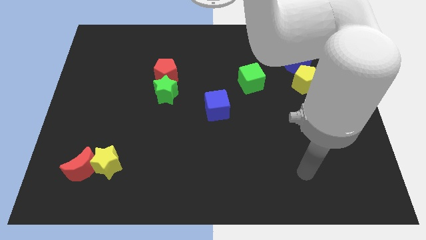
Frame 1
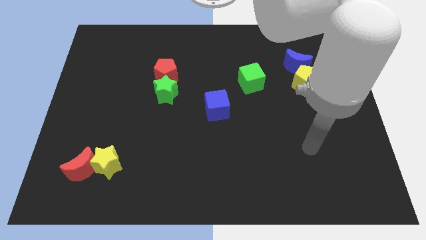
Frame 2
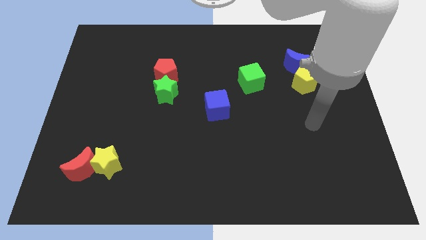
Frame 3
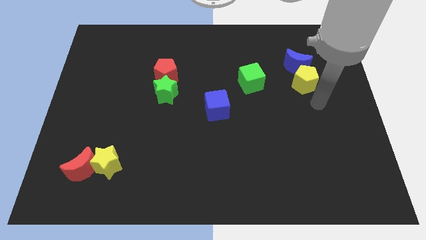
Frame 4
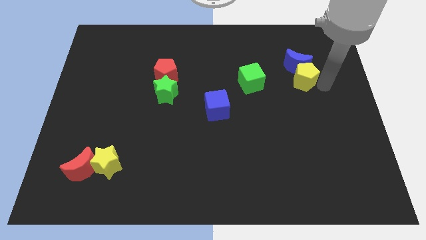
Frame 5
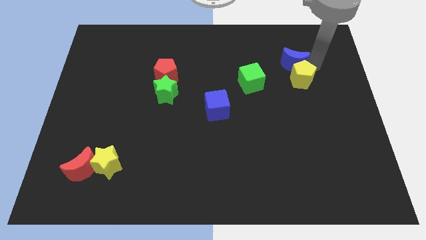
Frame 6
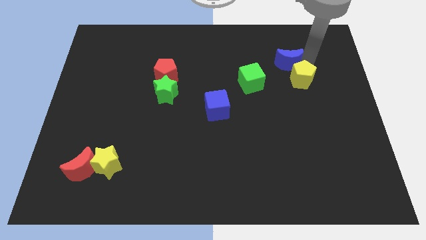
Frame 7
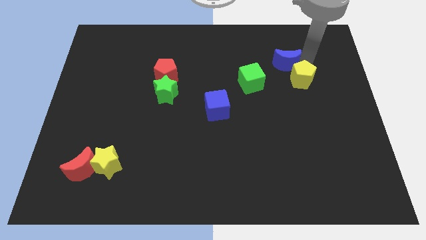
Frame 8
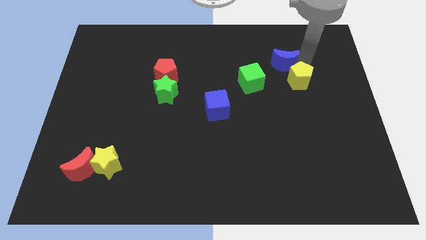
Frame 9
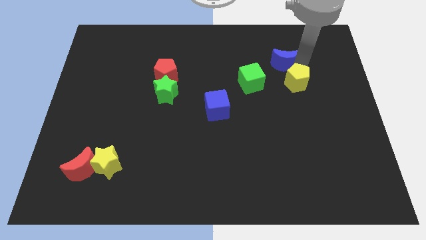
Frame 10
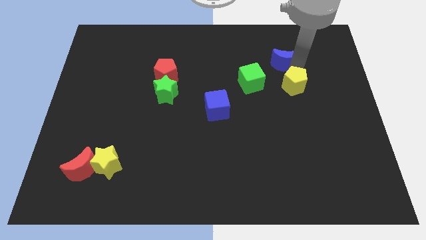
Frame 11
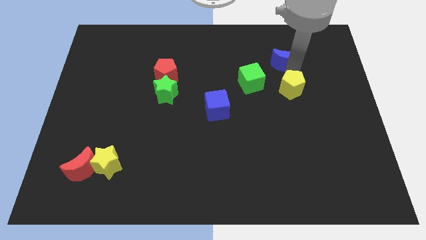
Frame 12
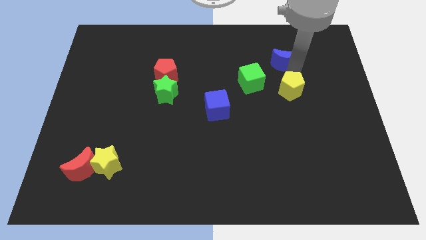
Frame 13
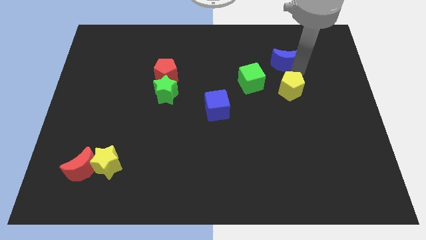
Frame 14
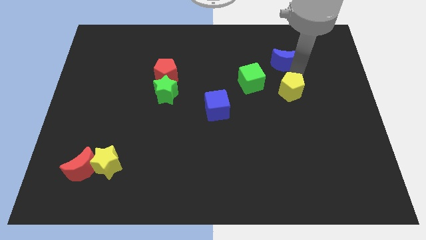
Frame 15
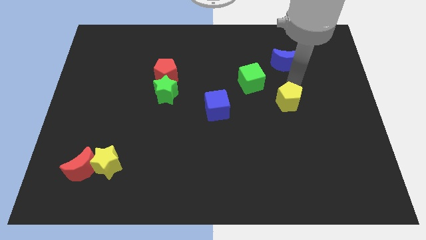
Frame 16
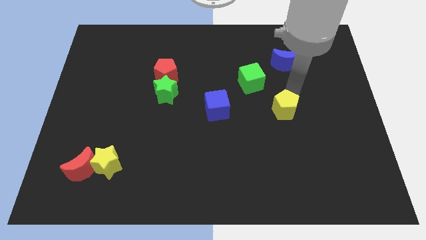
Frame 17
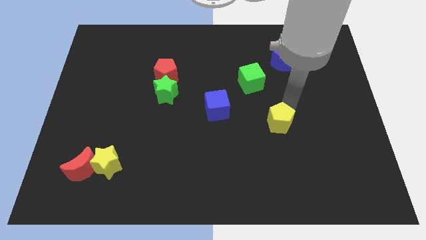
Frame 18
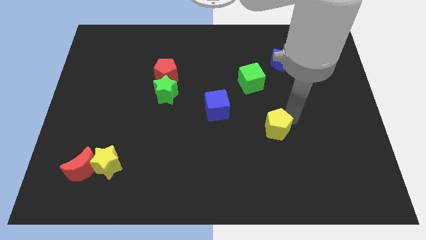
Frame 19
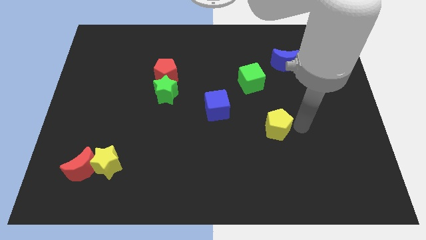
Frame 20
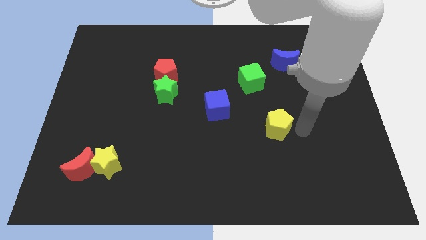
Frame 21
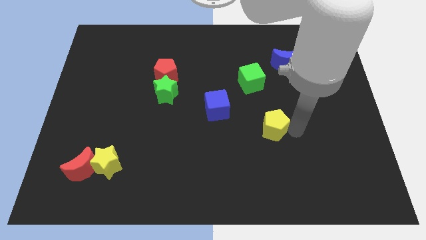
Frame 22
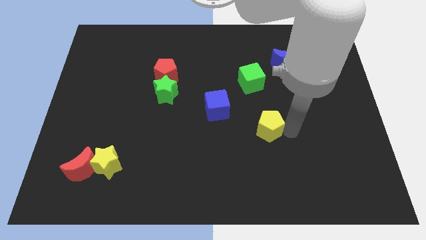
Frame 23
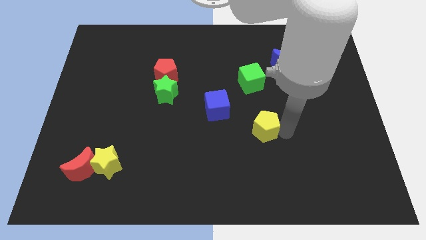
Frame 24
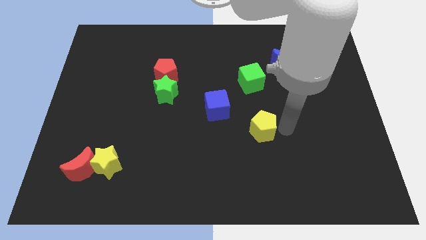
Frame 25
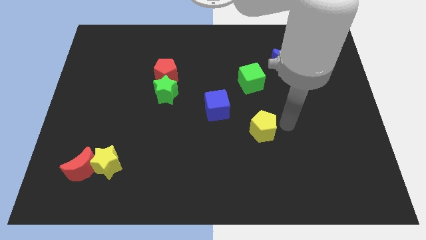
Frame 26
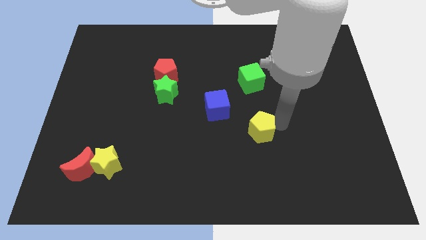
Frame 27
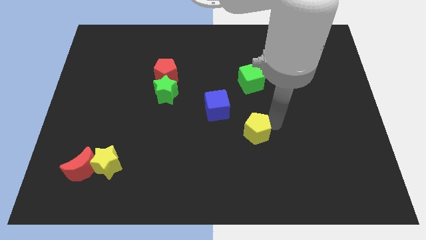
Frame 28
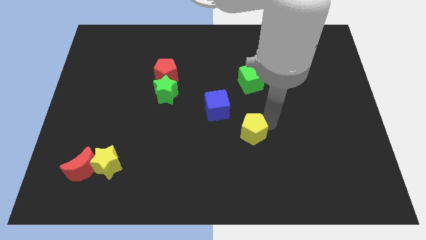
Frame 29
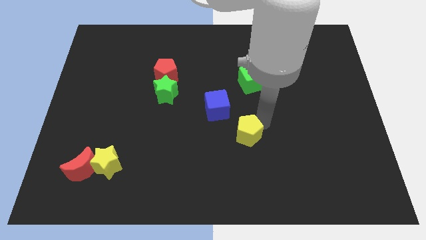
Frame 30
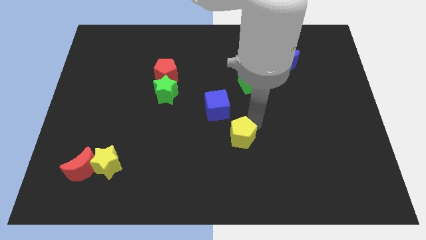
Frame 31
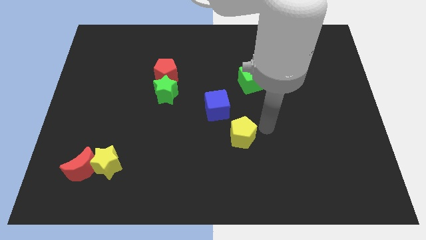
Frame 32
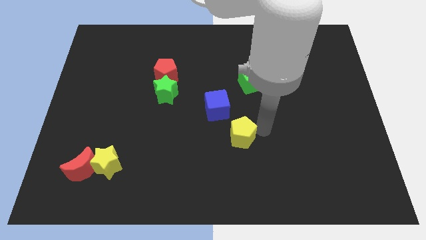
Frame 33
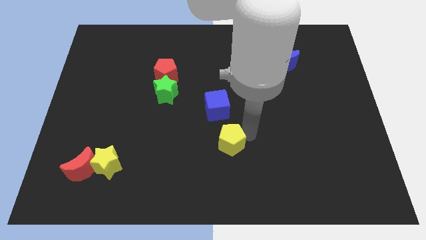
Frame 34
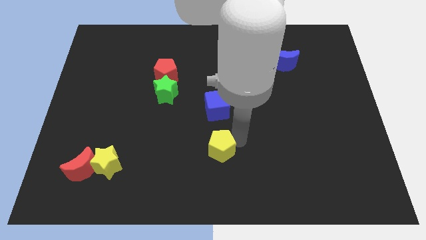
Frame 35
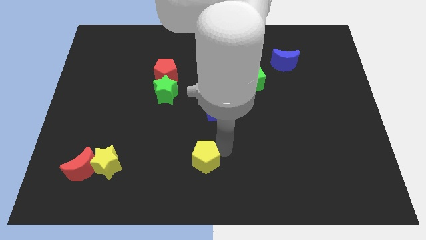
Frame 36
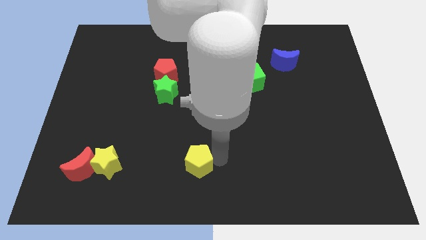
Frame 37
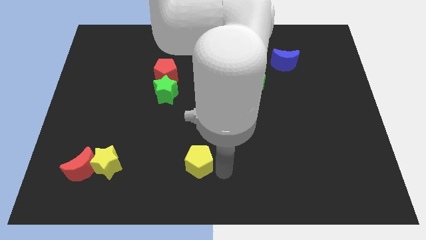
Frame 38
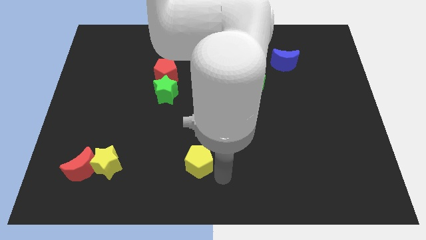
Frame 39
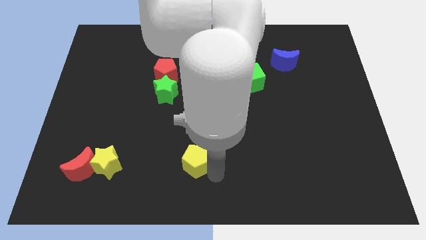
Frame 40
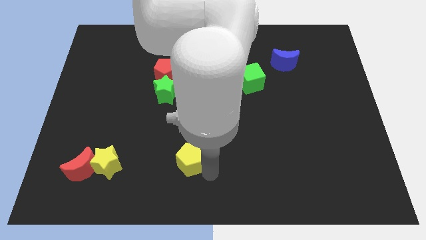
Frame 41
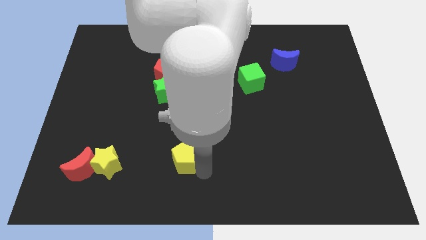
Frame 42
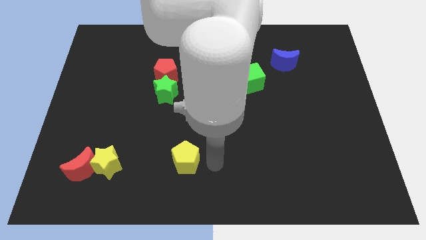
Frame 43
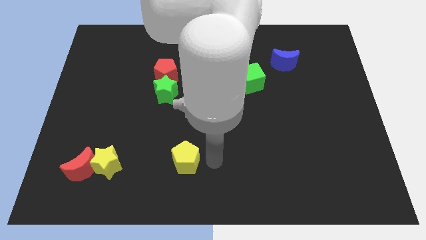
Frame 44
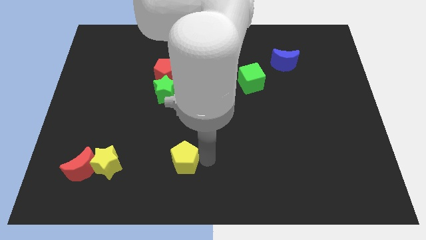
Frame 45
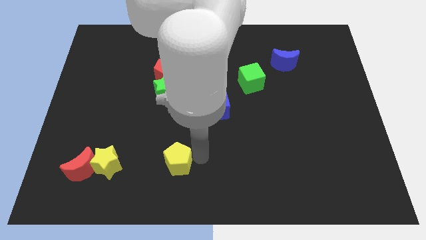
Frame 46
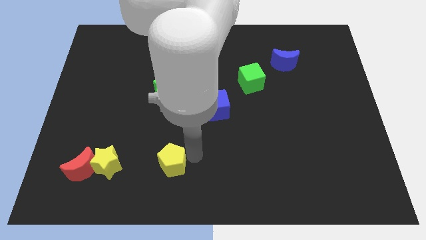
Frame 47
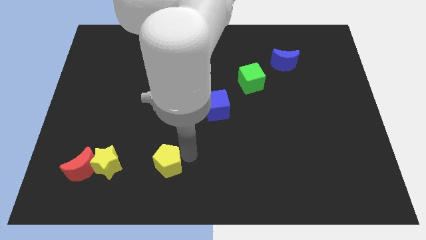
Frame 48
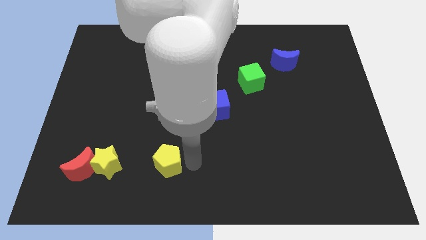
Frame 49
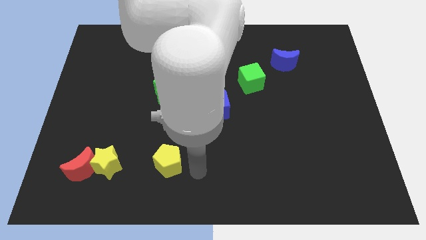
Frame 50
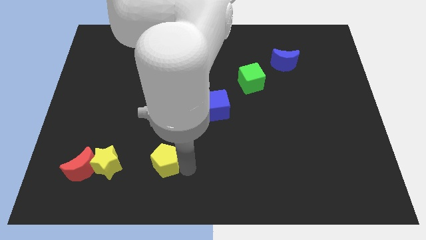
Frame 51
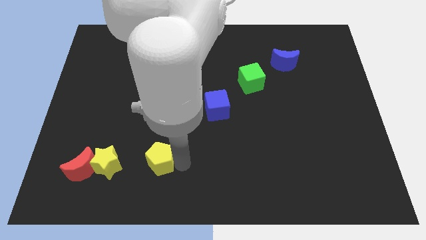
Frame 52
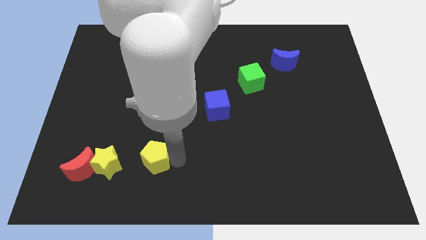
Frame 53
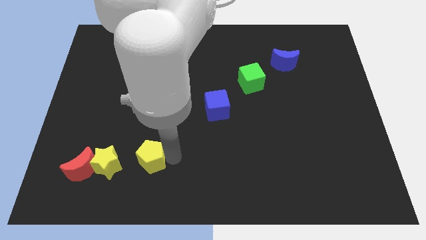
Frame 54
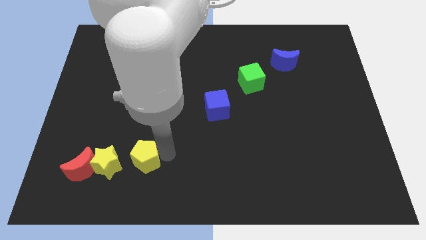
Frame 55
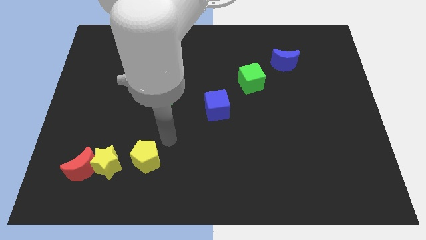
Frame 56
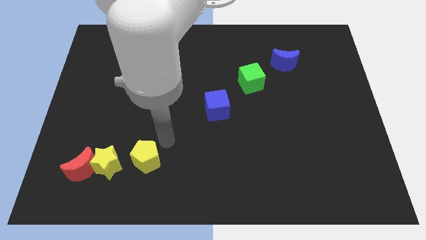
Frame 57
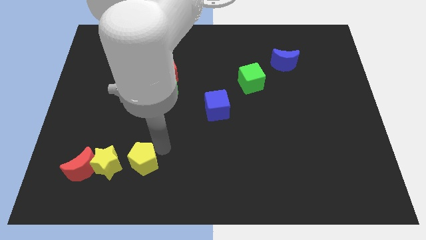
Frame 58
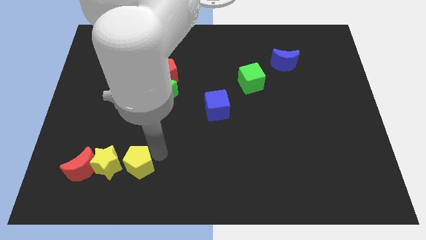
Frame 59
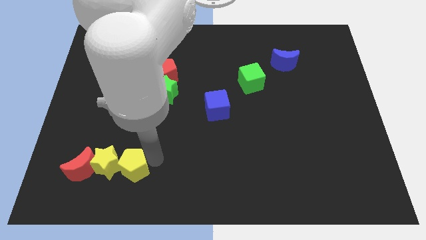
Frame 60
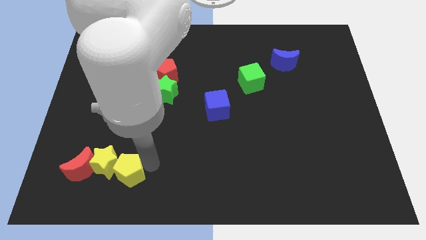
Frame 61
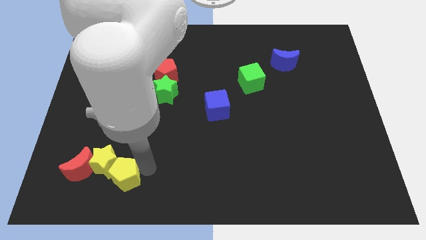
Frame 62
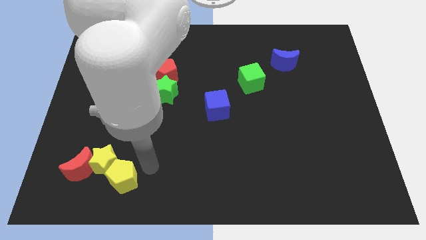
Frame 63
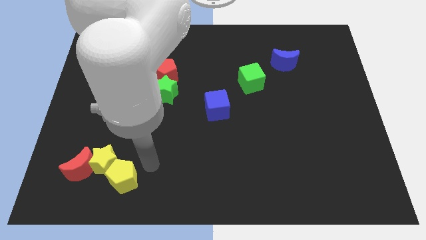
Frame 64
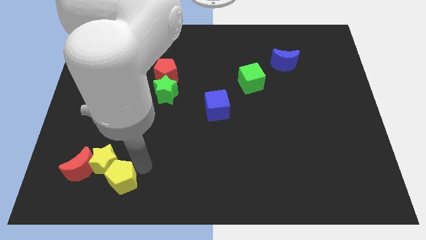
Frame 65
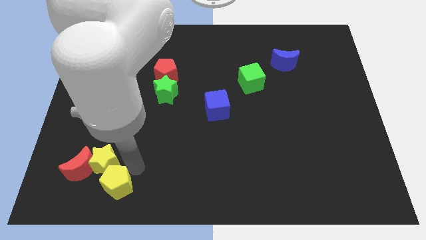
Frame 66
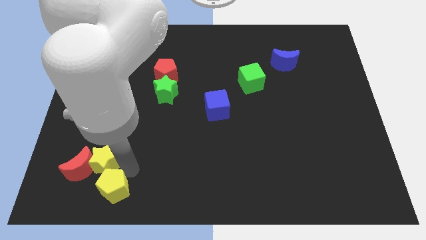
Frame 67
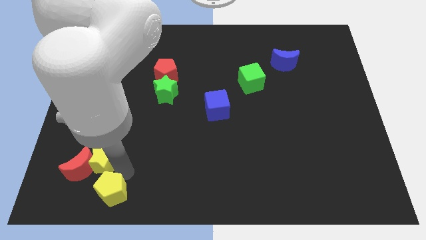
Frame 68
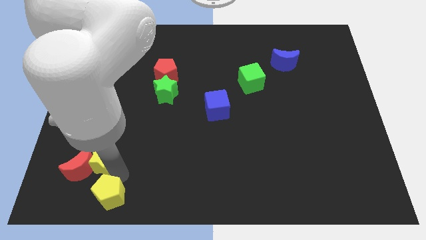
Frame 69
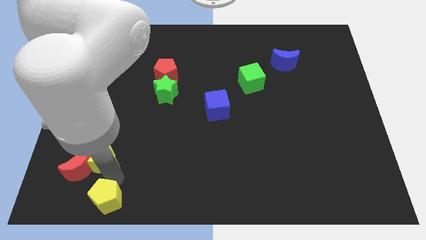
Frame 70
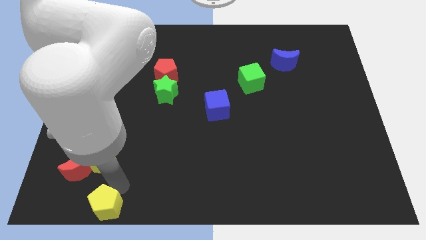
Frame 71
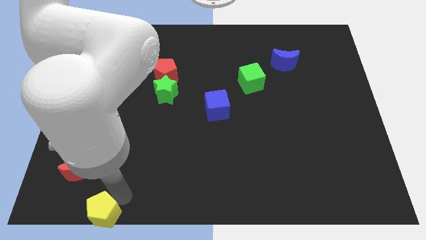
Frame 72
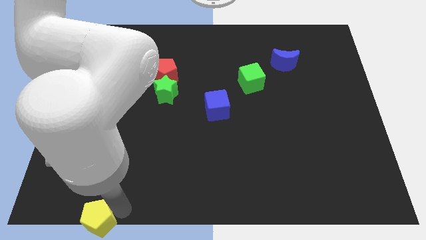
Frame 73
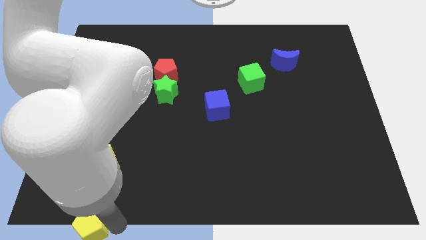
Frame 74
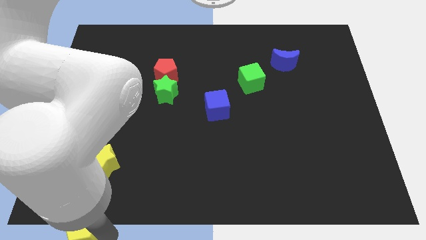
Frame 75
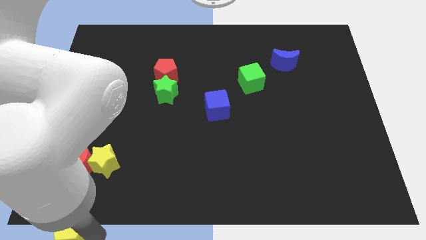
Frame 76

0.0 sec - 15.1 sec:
put the yellow pentagon to the bottom left
